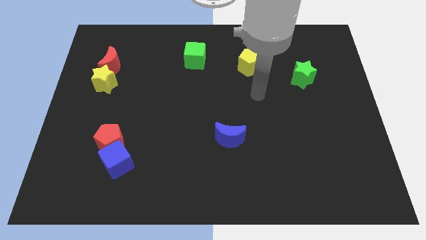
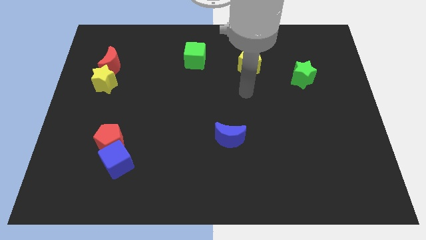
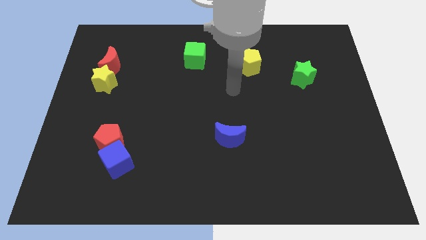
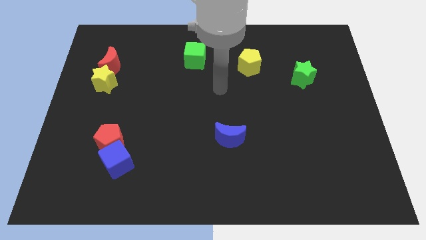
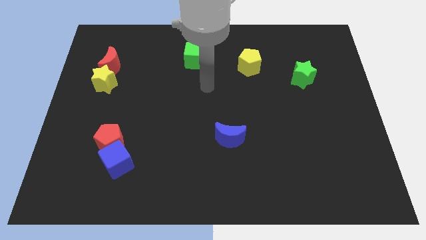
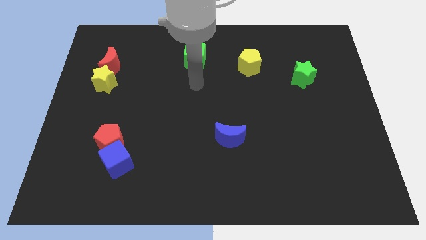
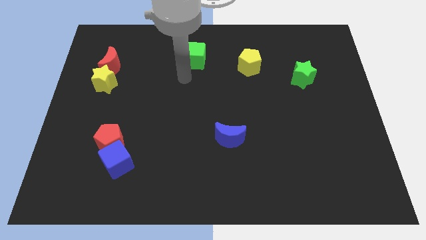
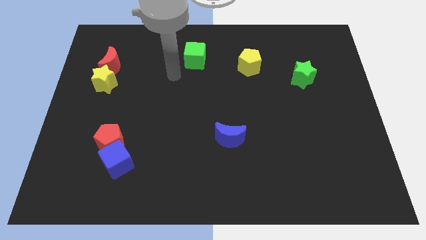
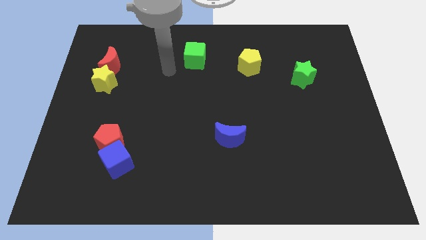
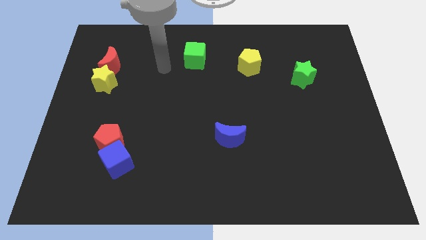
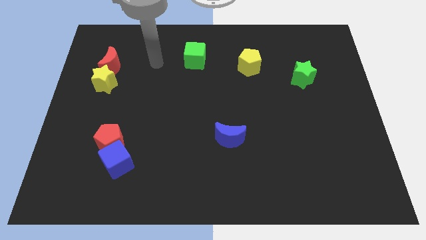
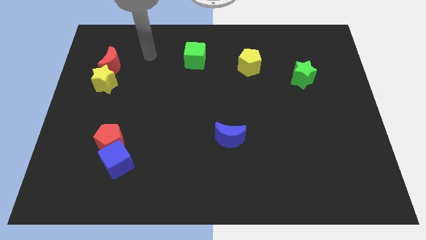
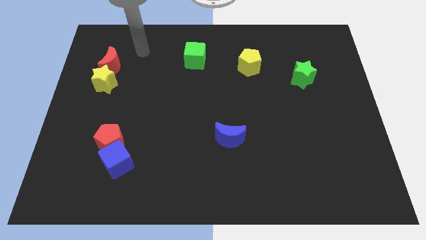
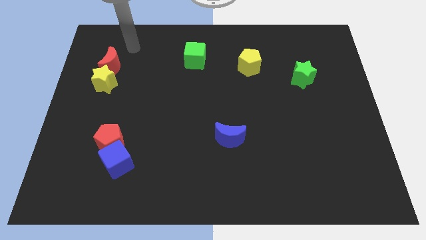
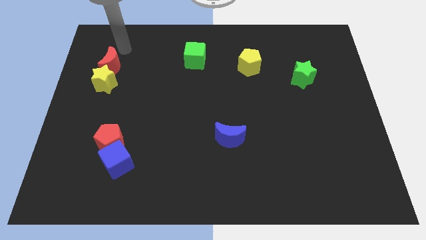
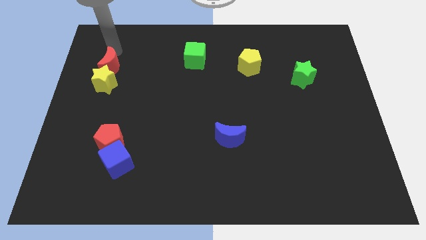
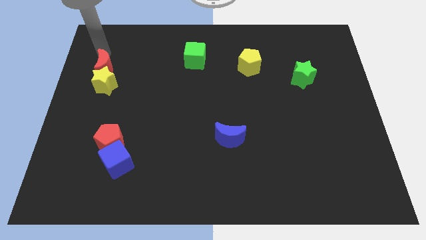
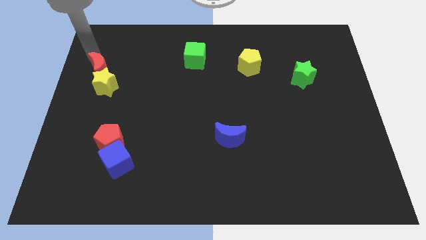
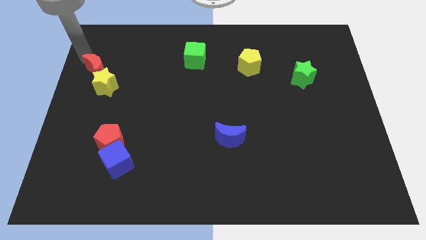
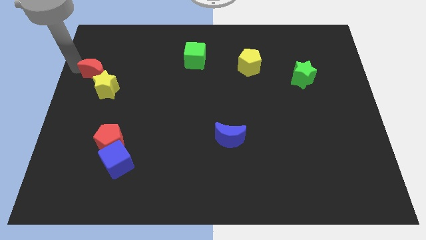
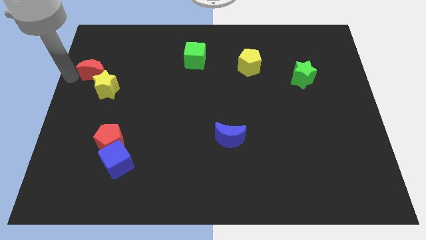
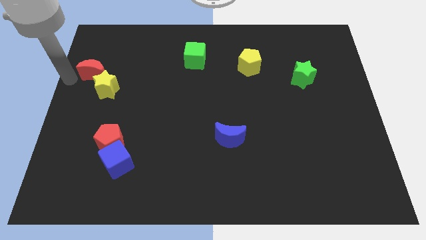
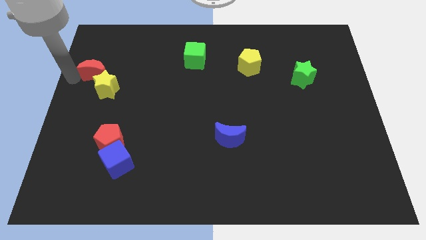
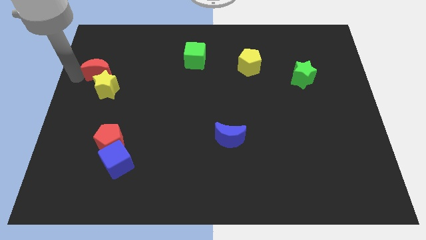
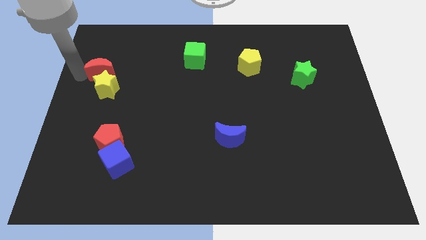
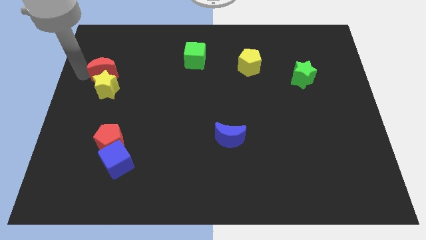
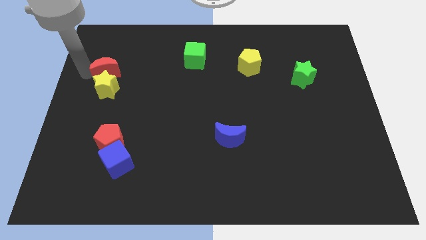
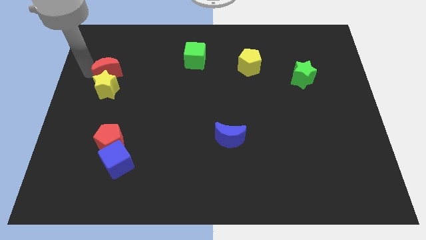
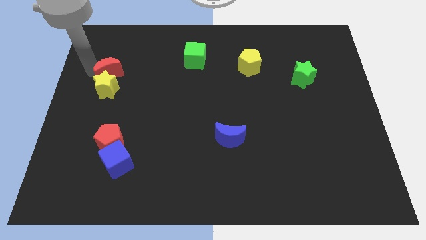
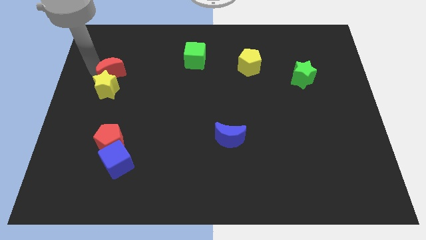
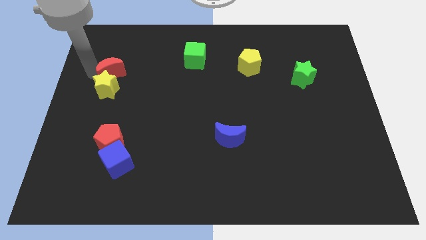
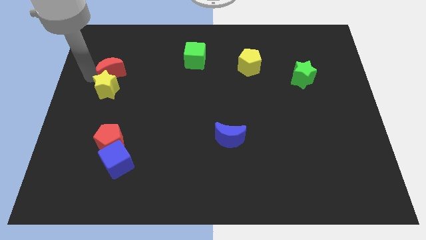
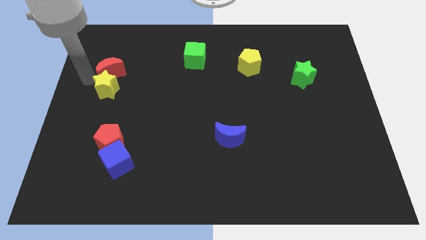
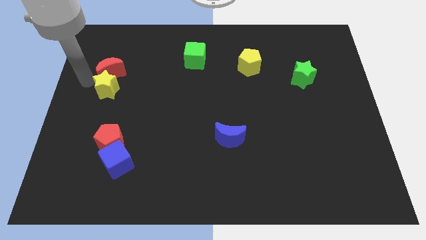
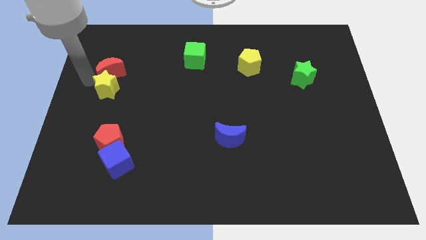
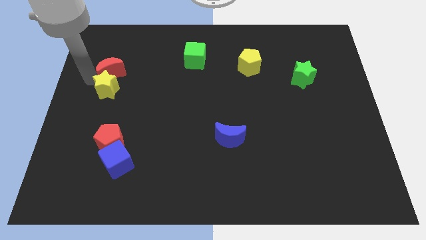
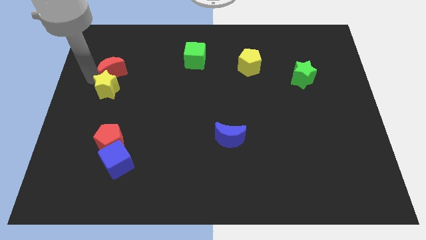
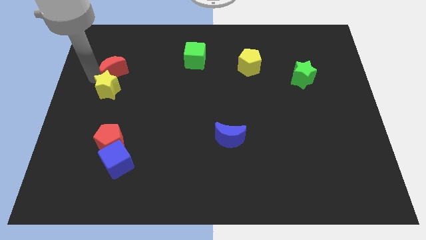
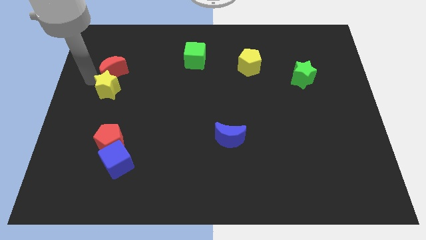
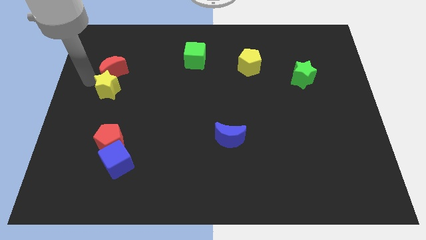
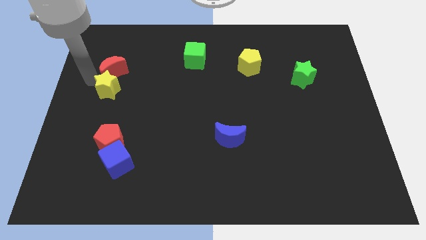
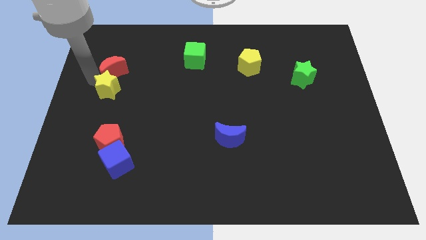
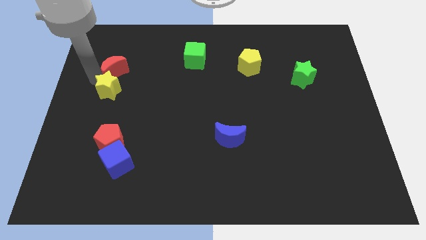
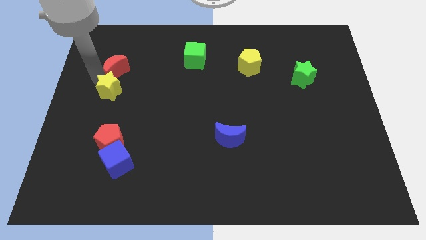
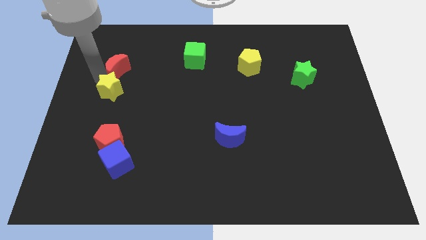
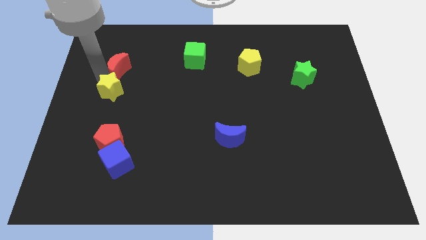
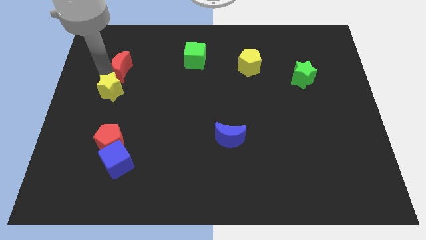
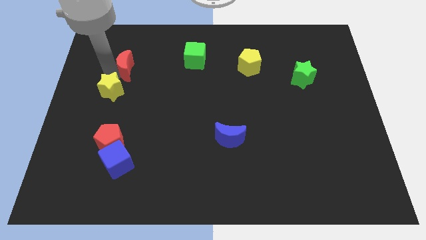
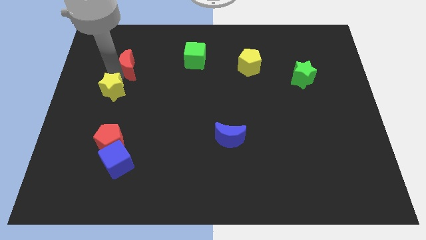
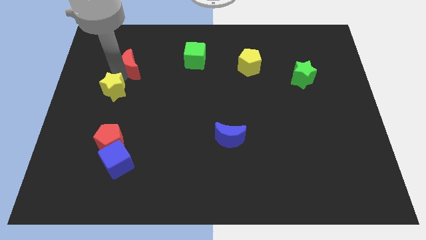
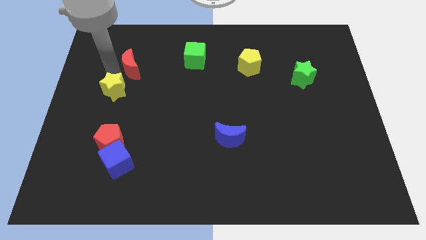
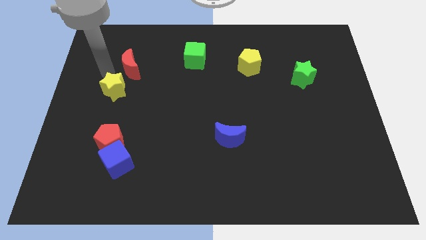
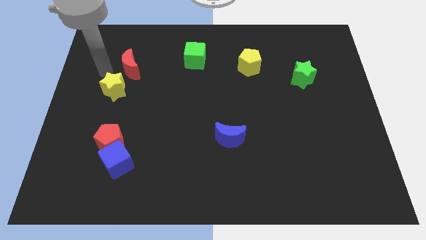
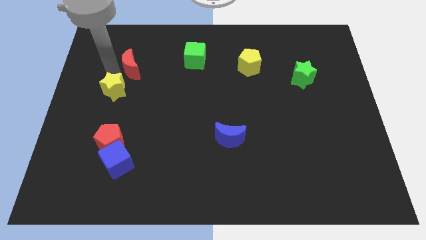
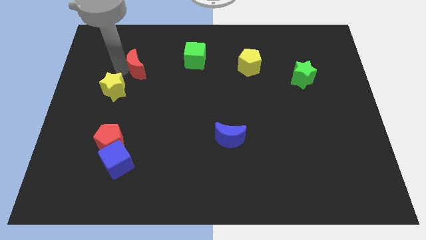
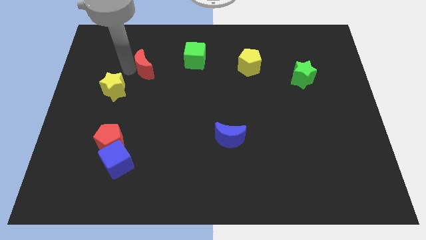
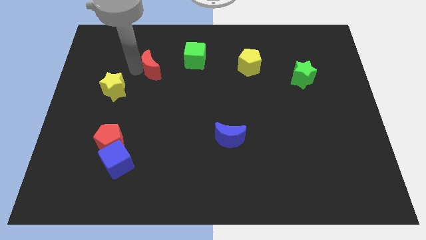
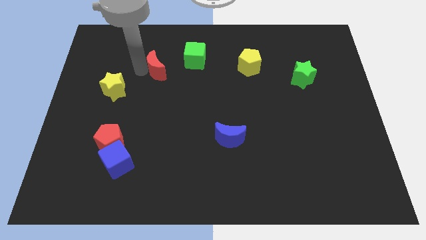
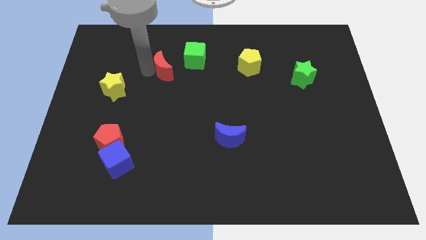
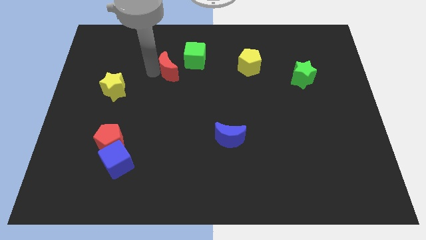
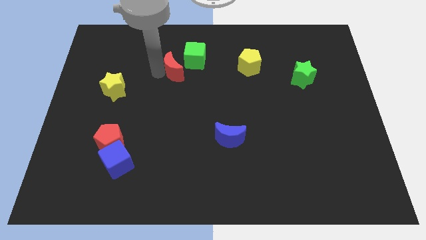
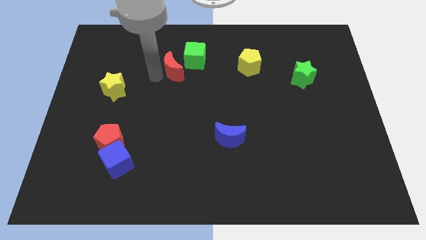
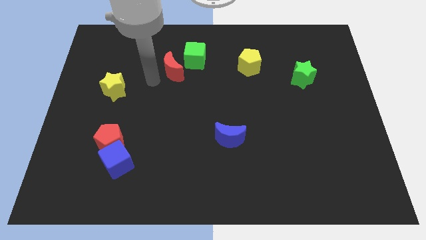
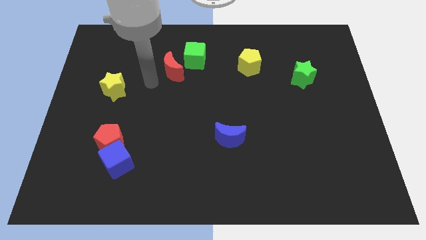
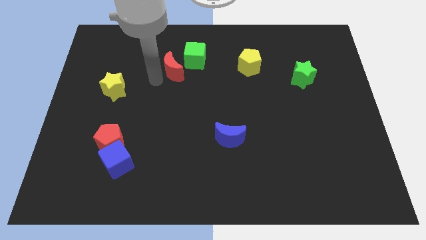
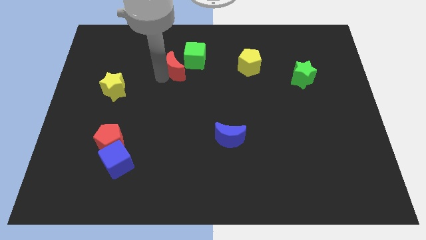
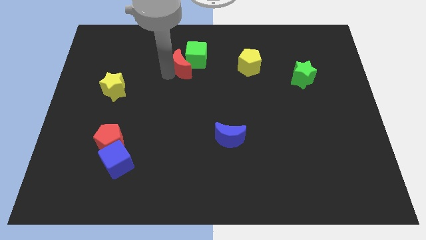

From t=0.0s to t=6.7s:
put the red moon next to the green cube
